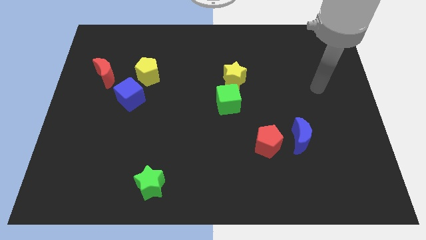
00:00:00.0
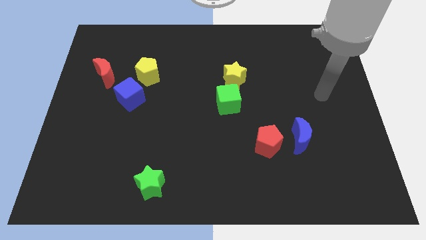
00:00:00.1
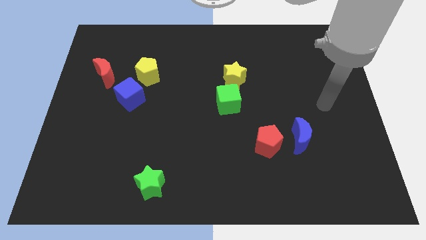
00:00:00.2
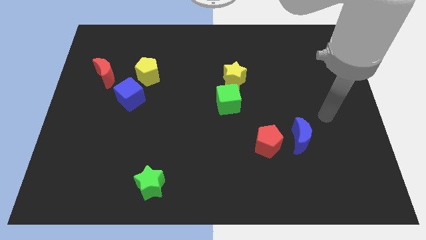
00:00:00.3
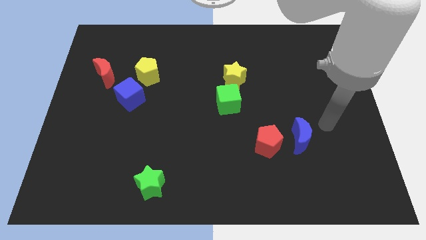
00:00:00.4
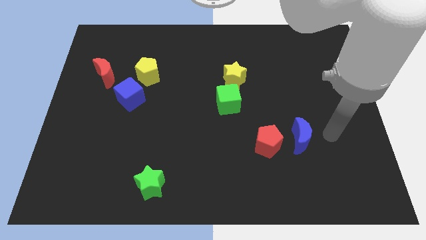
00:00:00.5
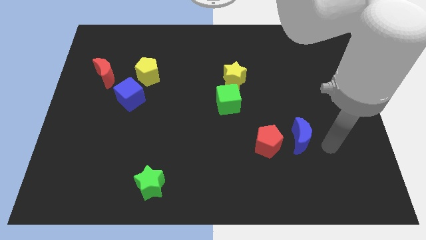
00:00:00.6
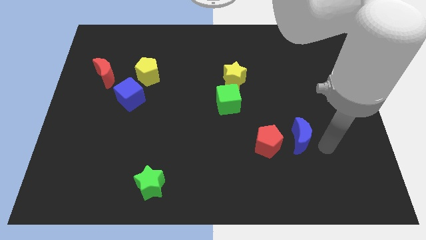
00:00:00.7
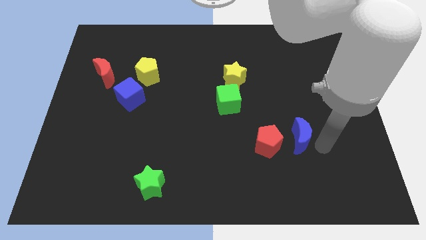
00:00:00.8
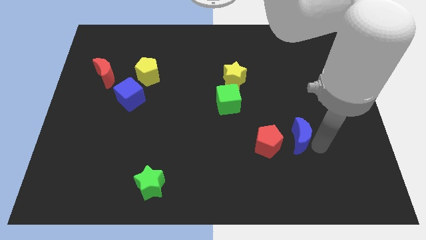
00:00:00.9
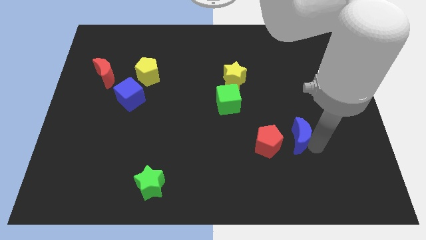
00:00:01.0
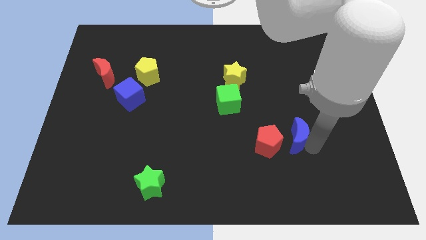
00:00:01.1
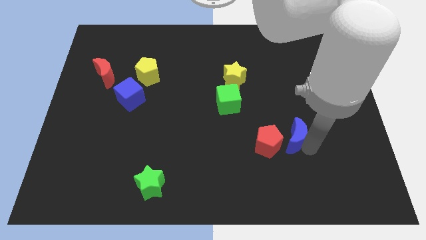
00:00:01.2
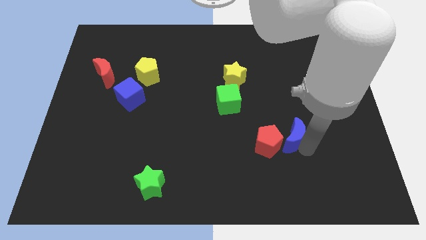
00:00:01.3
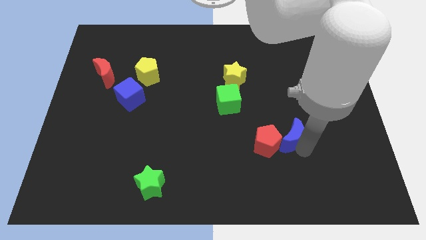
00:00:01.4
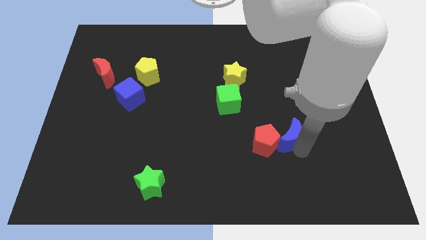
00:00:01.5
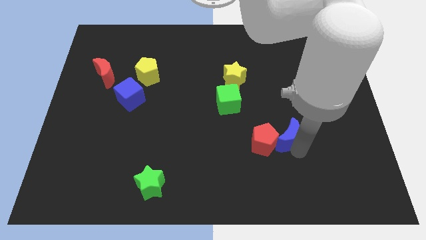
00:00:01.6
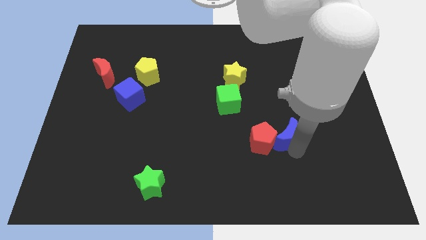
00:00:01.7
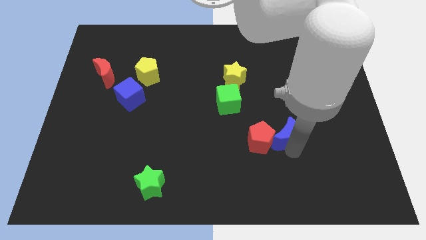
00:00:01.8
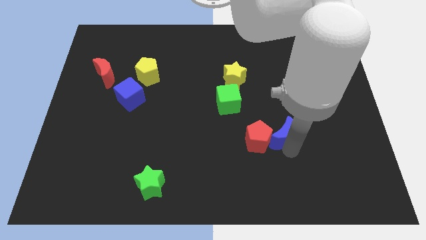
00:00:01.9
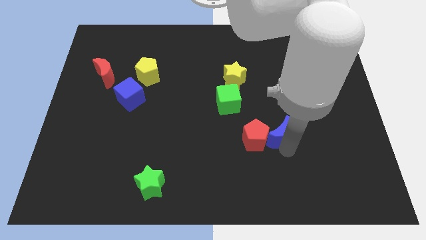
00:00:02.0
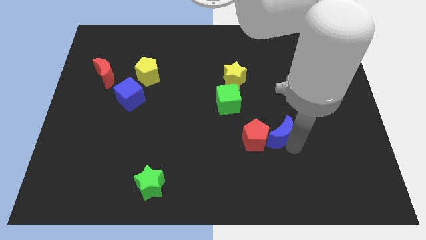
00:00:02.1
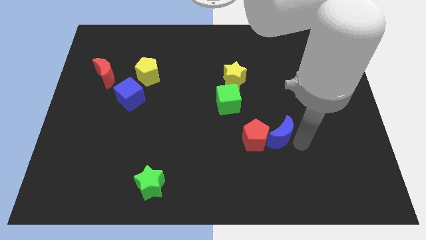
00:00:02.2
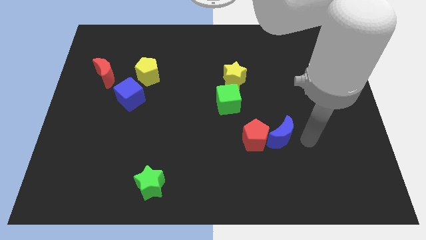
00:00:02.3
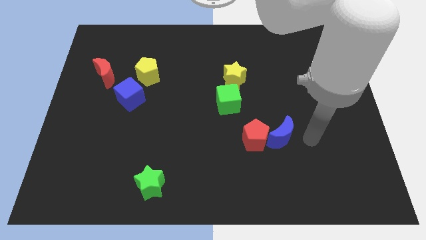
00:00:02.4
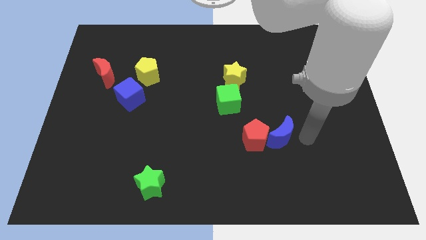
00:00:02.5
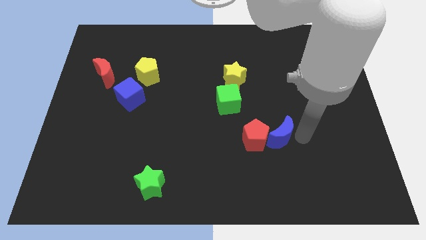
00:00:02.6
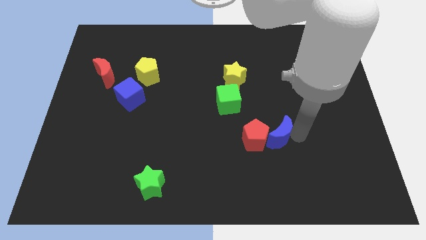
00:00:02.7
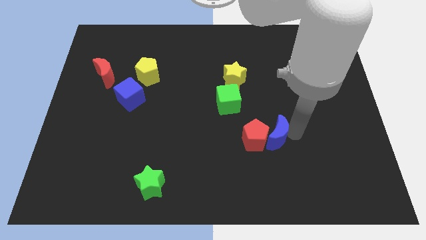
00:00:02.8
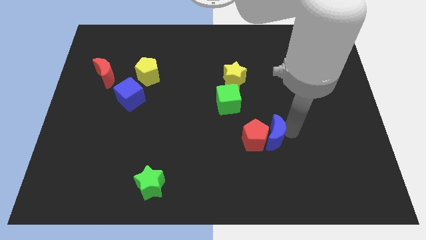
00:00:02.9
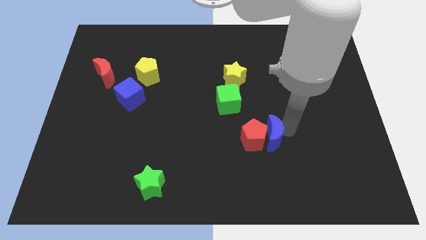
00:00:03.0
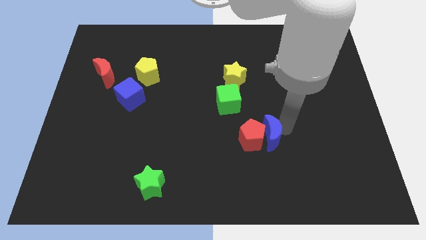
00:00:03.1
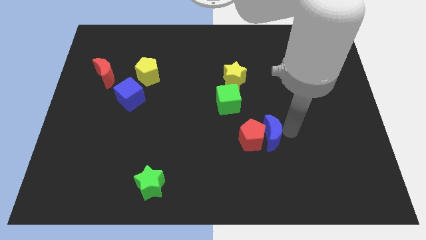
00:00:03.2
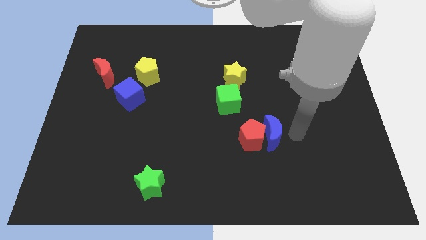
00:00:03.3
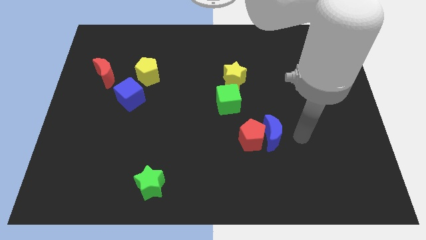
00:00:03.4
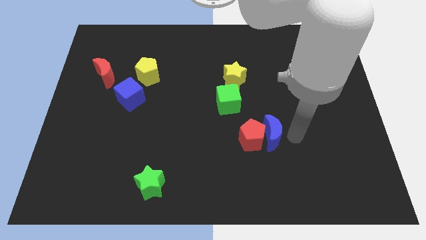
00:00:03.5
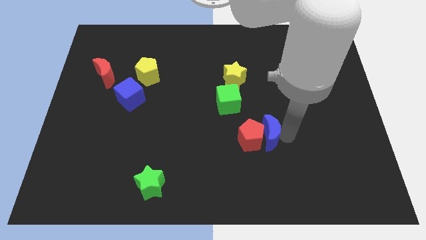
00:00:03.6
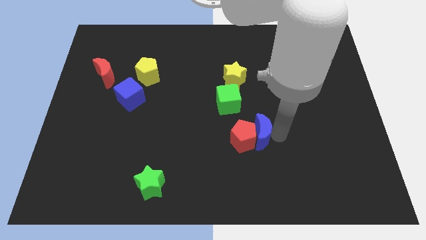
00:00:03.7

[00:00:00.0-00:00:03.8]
slide the blue moon a little left

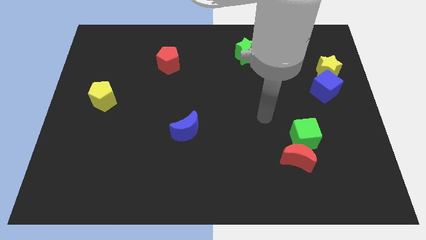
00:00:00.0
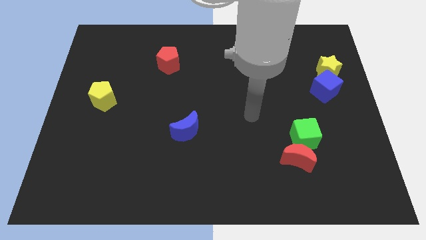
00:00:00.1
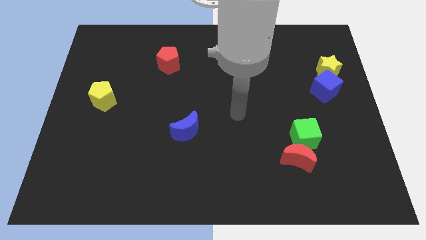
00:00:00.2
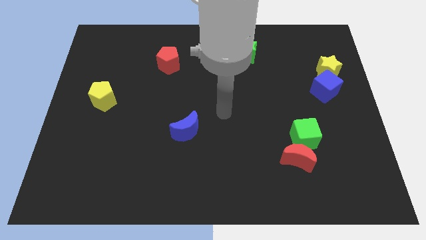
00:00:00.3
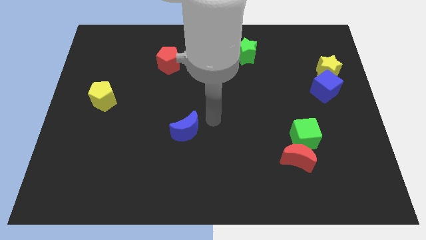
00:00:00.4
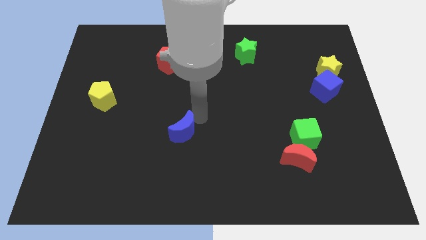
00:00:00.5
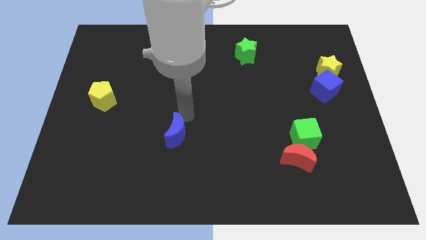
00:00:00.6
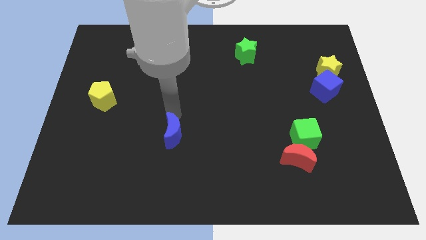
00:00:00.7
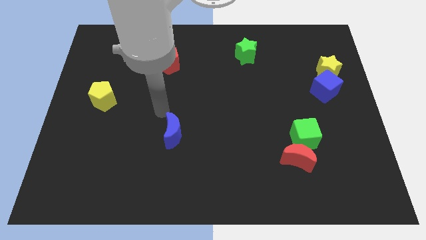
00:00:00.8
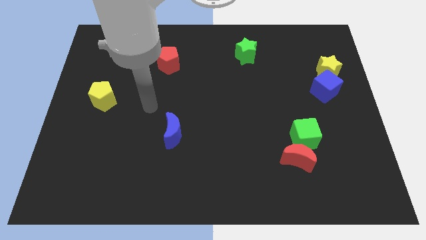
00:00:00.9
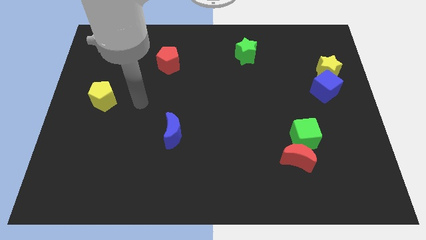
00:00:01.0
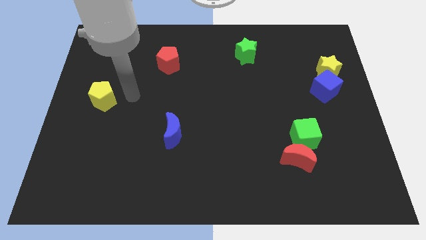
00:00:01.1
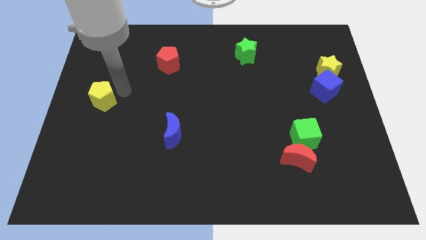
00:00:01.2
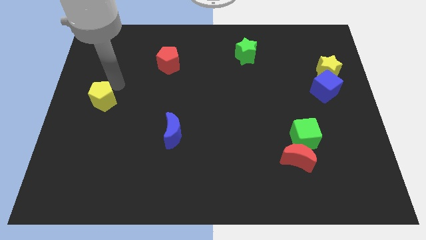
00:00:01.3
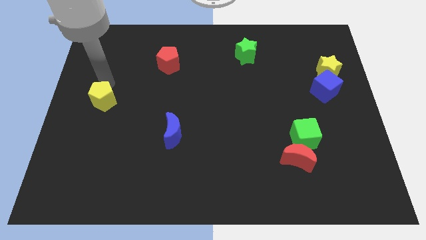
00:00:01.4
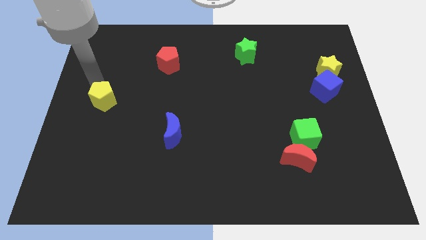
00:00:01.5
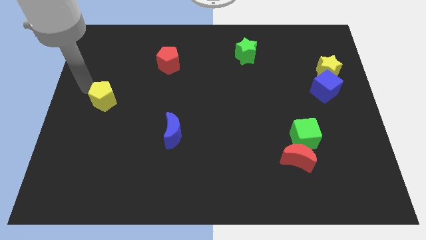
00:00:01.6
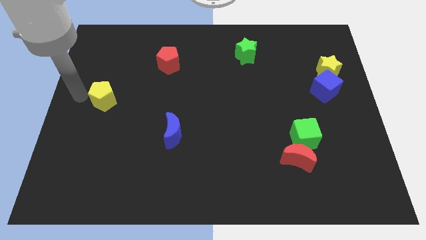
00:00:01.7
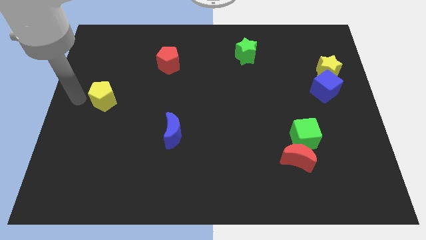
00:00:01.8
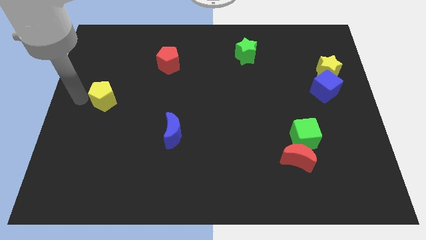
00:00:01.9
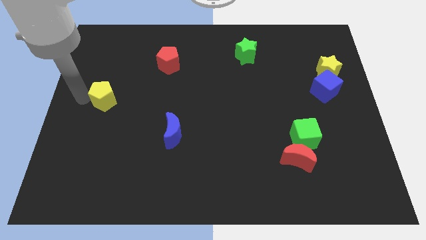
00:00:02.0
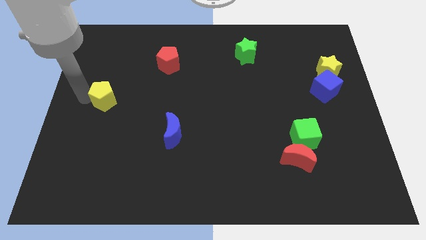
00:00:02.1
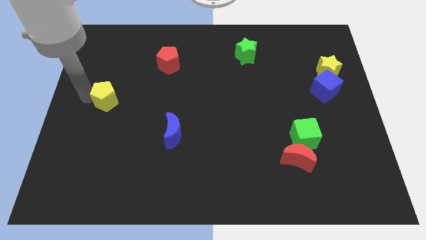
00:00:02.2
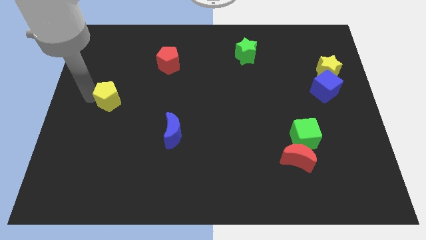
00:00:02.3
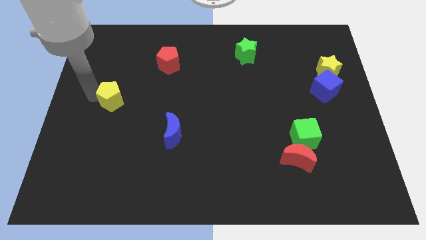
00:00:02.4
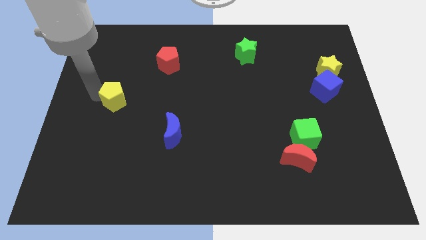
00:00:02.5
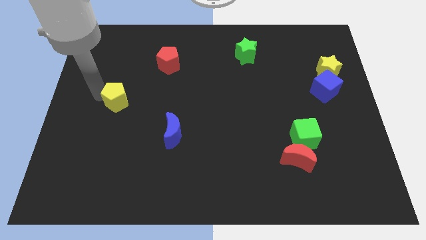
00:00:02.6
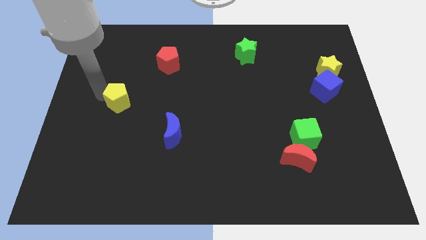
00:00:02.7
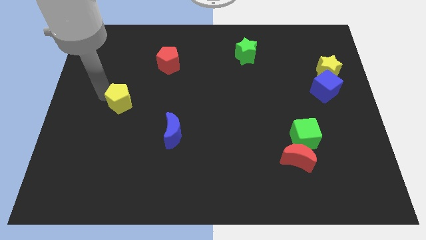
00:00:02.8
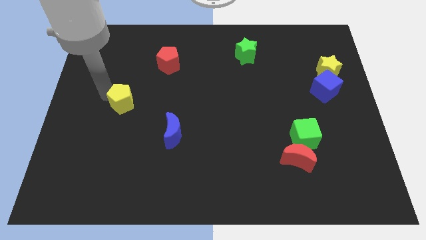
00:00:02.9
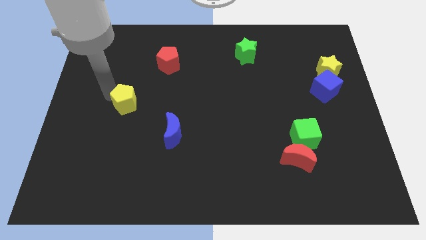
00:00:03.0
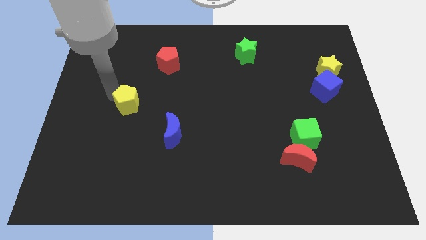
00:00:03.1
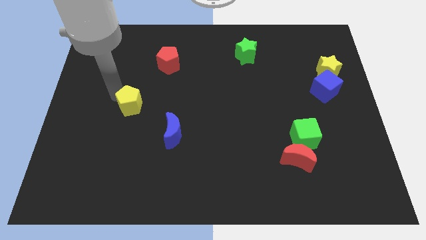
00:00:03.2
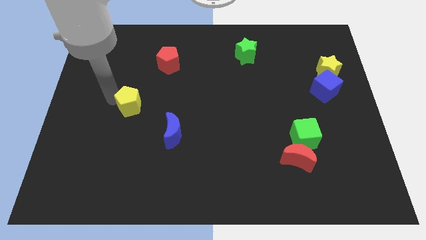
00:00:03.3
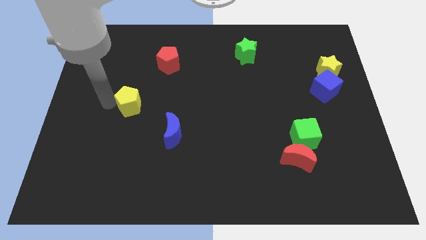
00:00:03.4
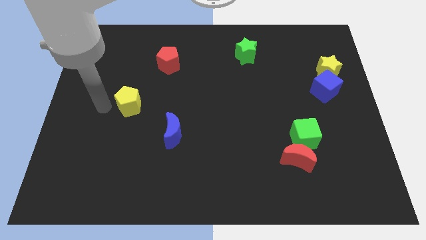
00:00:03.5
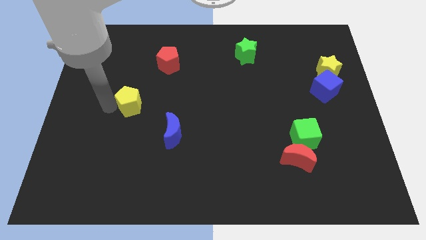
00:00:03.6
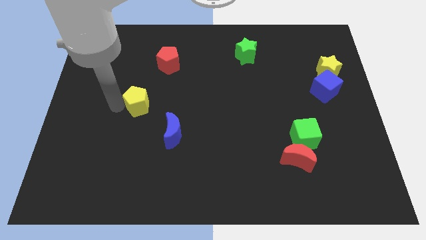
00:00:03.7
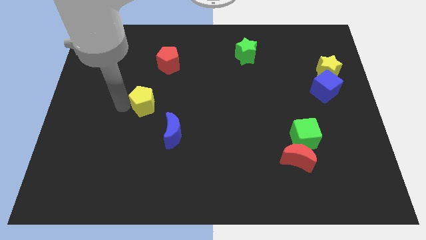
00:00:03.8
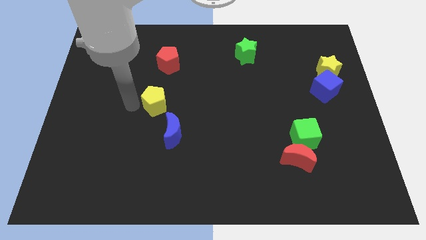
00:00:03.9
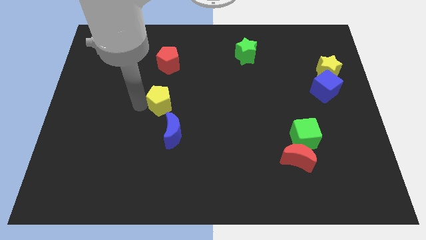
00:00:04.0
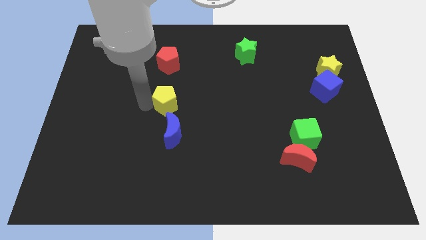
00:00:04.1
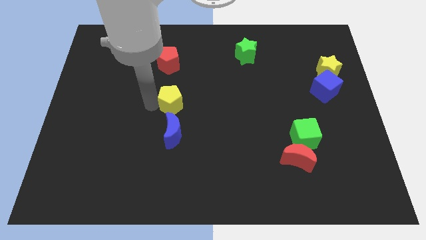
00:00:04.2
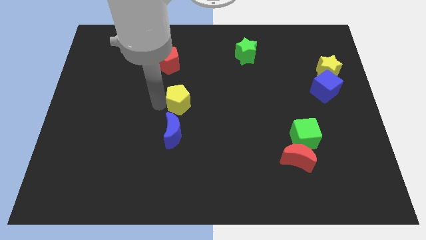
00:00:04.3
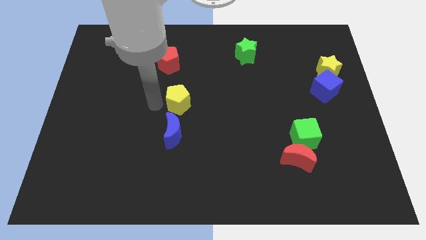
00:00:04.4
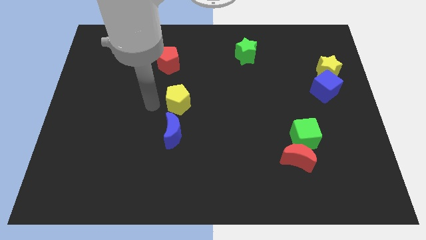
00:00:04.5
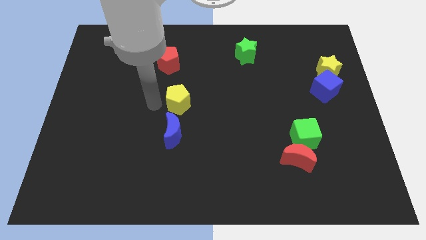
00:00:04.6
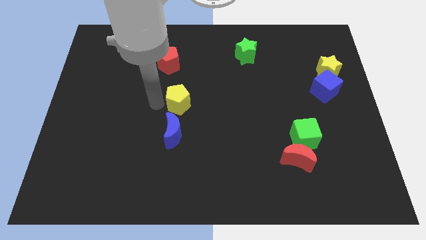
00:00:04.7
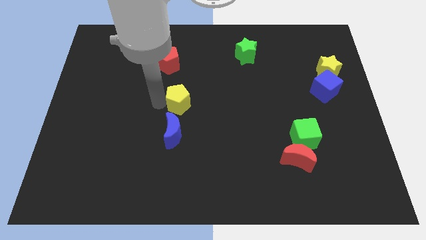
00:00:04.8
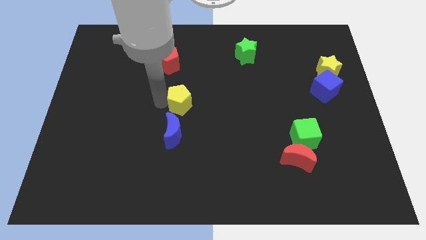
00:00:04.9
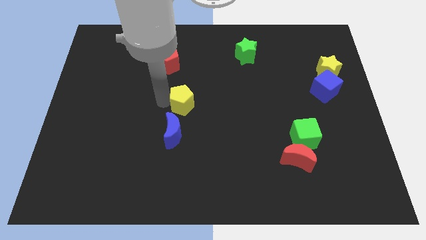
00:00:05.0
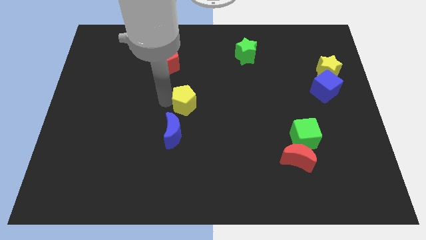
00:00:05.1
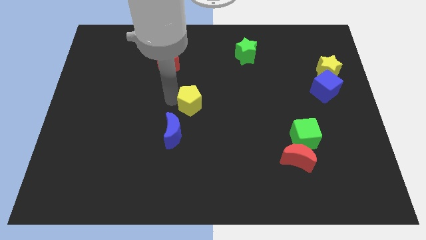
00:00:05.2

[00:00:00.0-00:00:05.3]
push the yellow pentagon to the right
